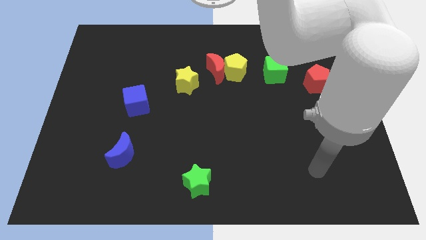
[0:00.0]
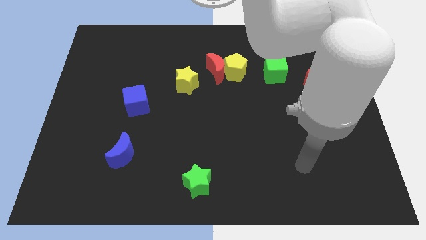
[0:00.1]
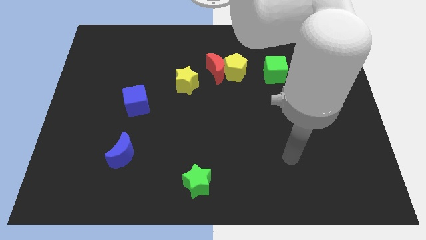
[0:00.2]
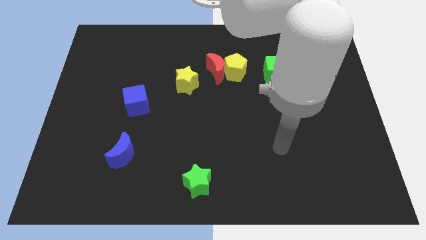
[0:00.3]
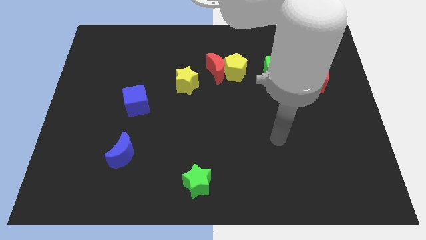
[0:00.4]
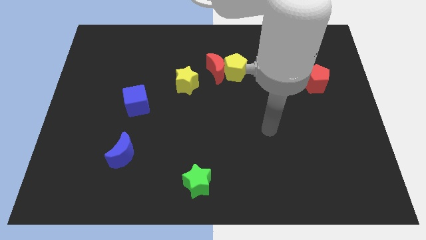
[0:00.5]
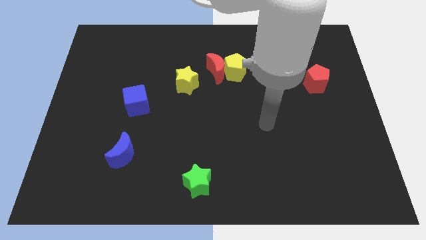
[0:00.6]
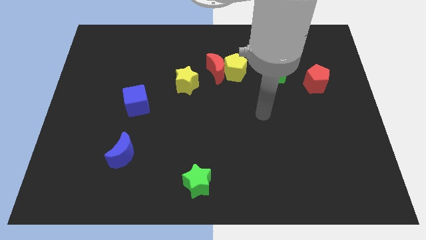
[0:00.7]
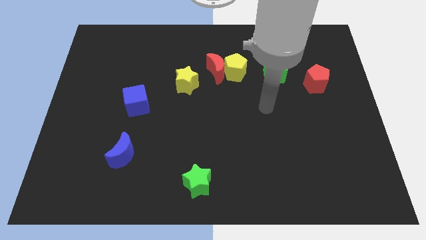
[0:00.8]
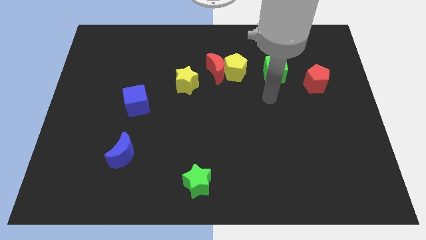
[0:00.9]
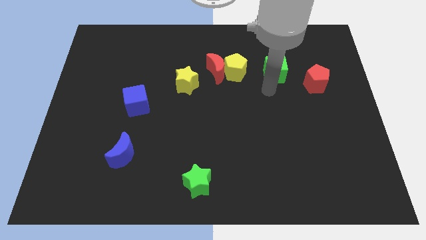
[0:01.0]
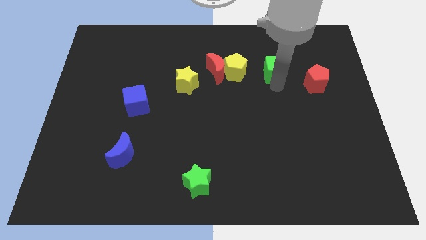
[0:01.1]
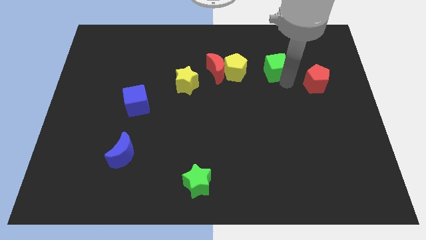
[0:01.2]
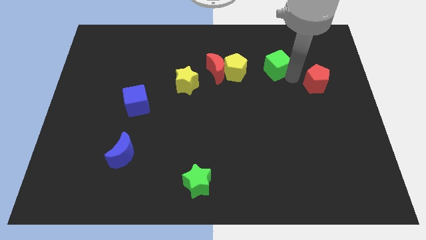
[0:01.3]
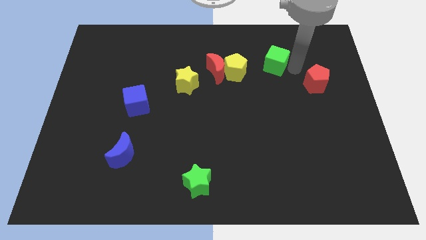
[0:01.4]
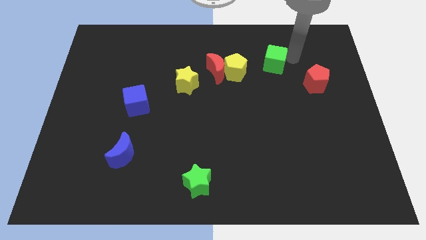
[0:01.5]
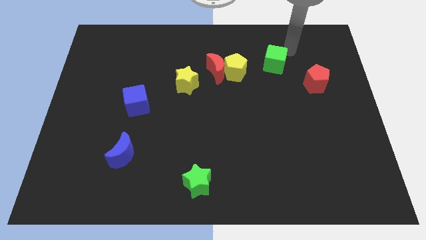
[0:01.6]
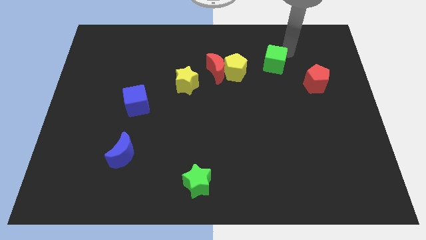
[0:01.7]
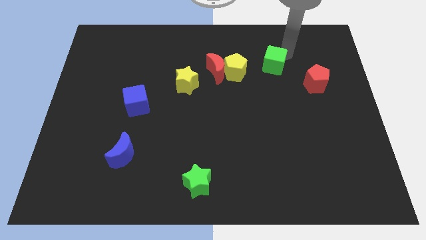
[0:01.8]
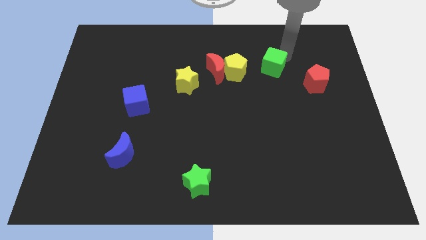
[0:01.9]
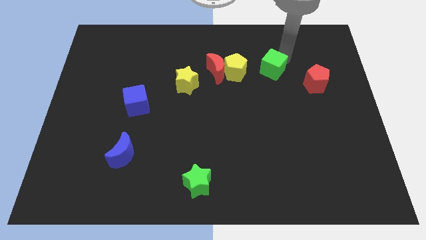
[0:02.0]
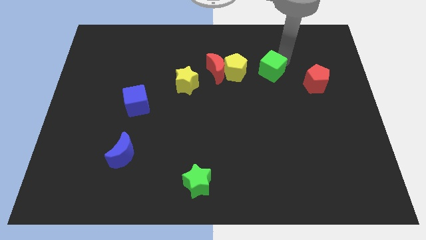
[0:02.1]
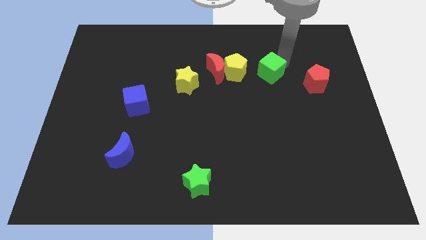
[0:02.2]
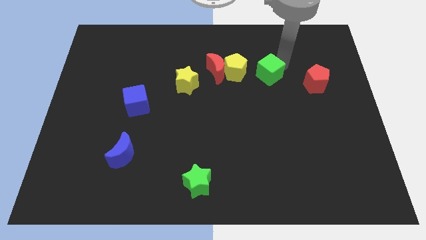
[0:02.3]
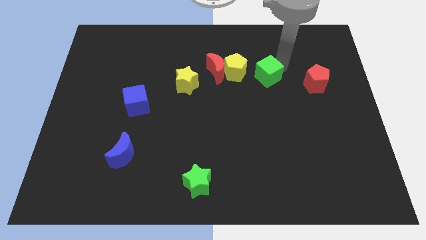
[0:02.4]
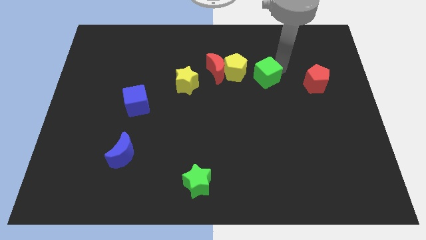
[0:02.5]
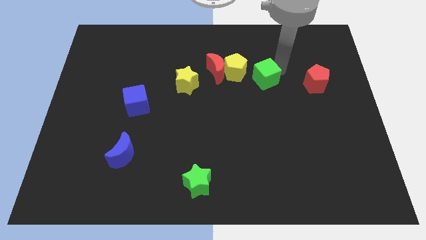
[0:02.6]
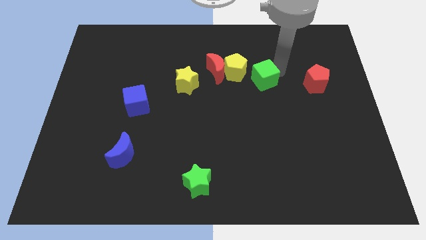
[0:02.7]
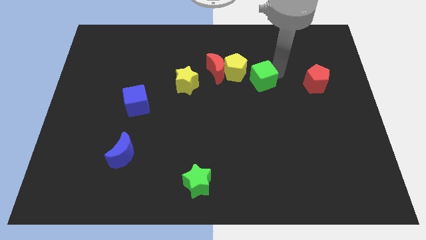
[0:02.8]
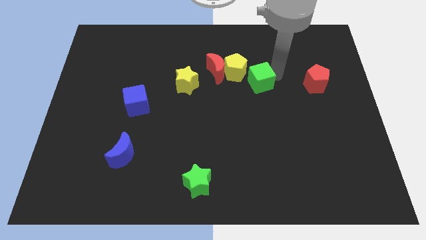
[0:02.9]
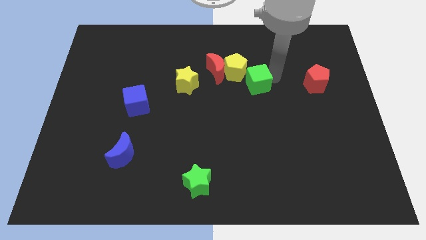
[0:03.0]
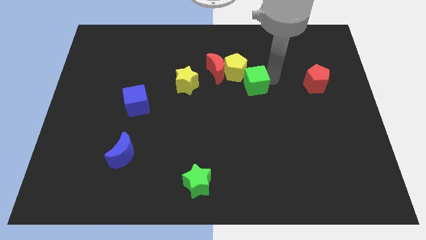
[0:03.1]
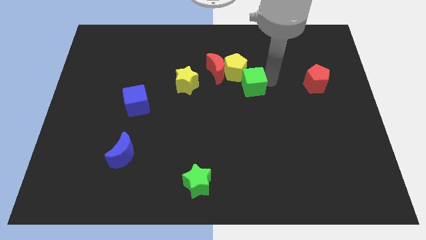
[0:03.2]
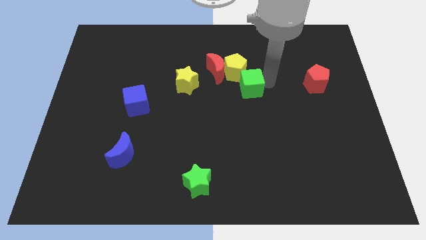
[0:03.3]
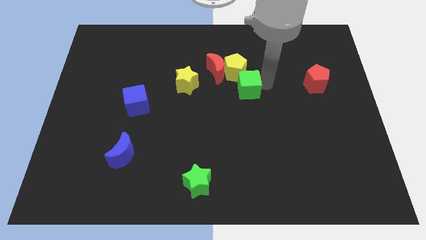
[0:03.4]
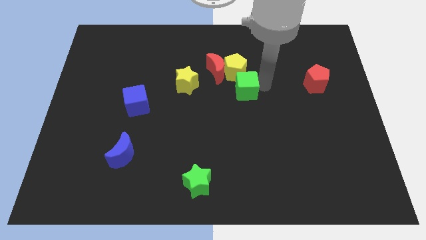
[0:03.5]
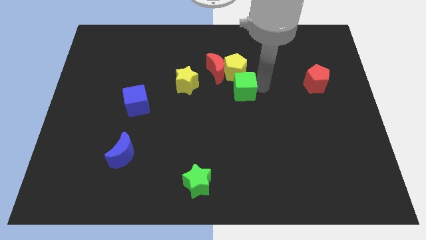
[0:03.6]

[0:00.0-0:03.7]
slightly slide the green cube to the left

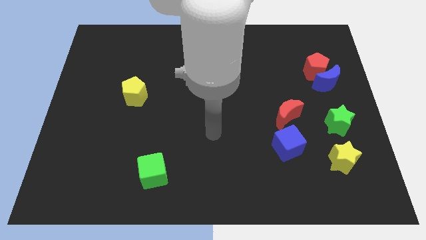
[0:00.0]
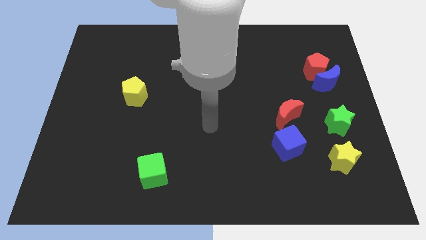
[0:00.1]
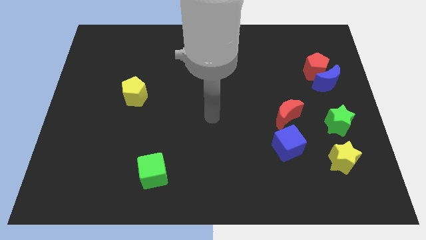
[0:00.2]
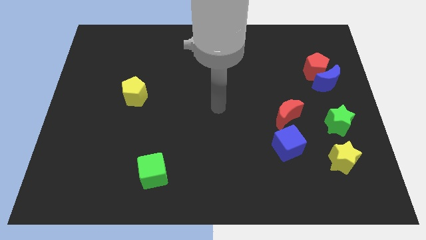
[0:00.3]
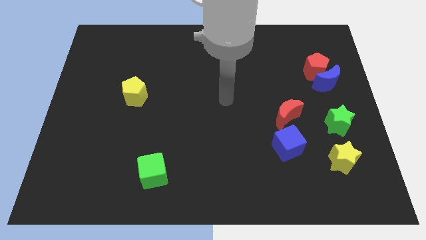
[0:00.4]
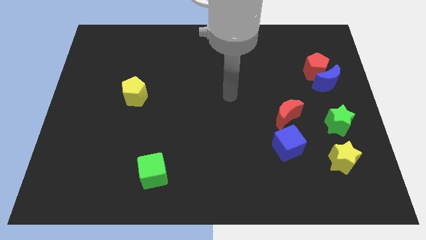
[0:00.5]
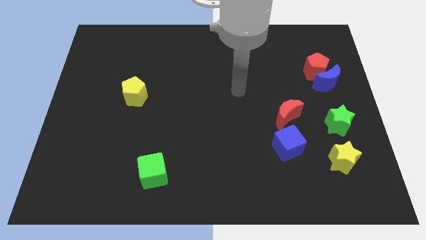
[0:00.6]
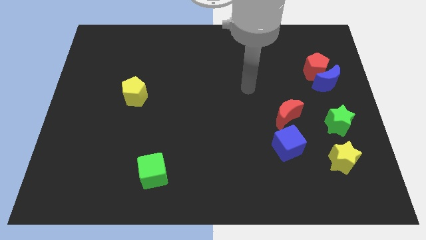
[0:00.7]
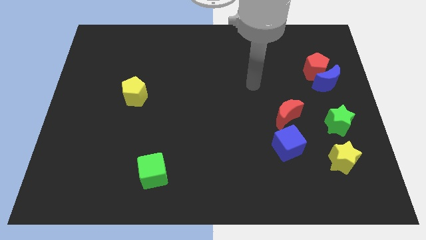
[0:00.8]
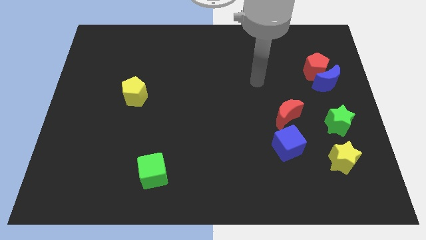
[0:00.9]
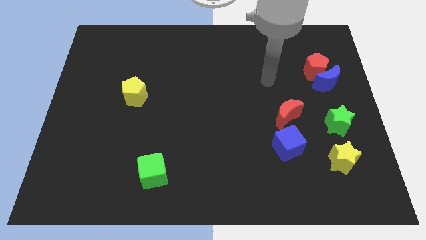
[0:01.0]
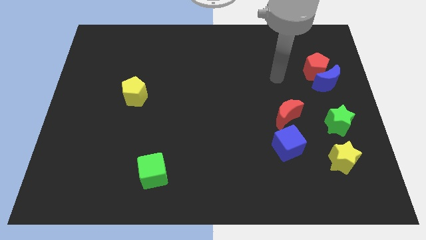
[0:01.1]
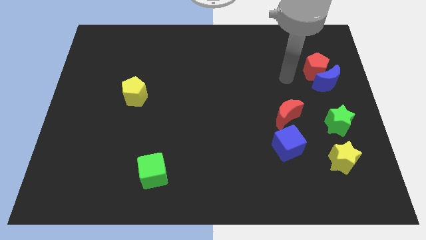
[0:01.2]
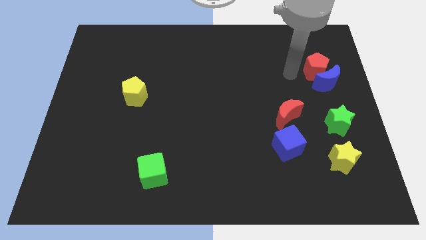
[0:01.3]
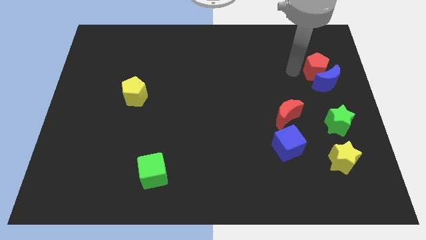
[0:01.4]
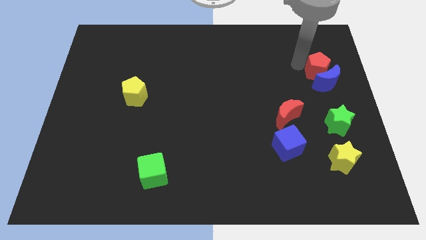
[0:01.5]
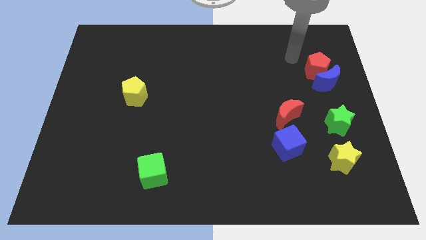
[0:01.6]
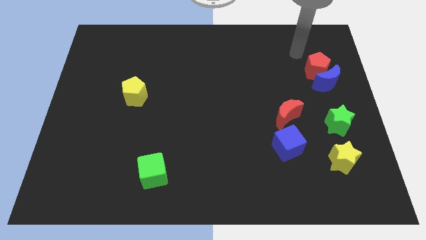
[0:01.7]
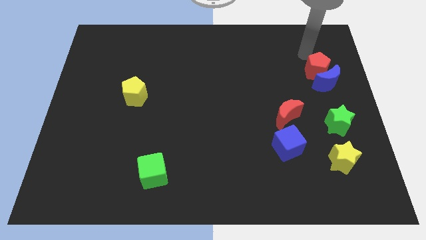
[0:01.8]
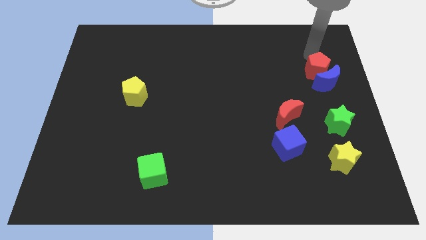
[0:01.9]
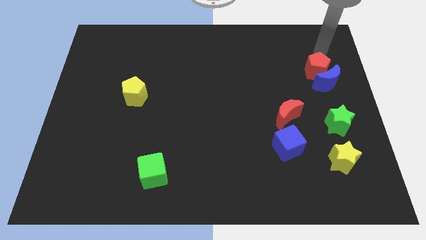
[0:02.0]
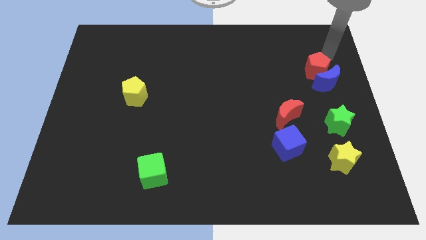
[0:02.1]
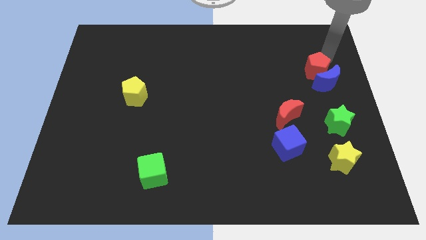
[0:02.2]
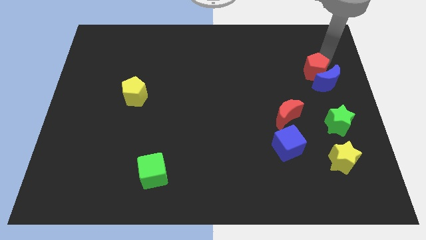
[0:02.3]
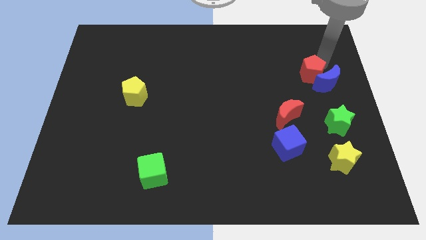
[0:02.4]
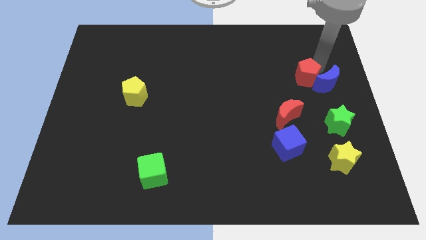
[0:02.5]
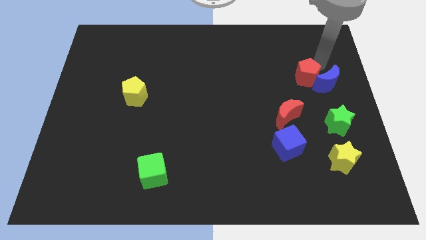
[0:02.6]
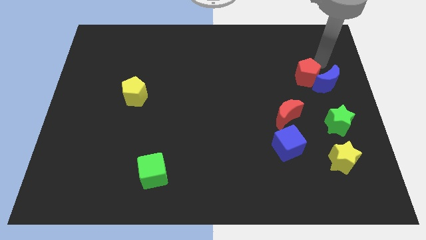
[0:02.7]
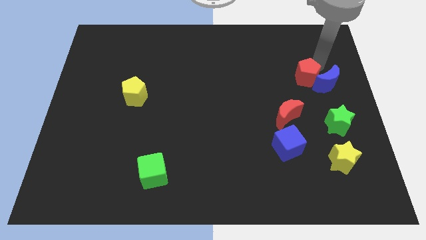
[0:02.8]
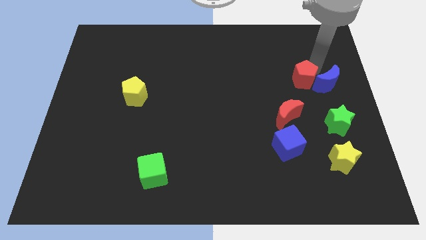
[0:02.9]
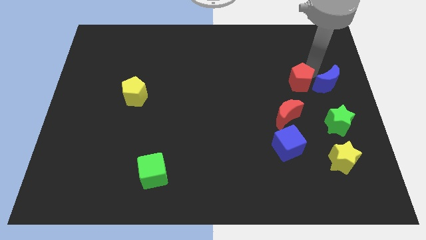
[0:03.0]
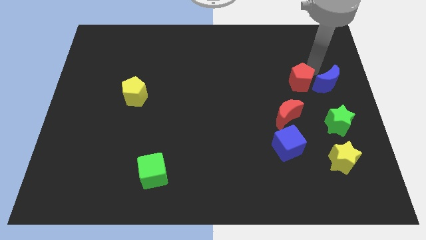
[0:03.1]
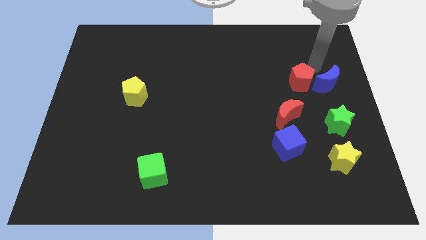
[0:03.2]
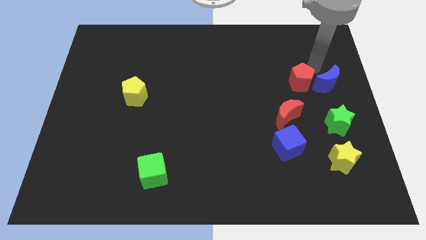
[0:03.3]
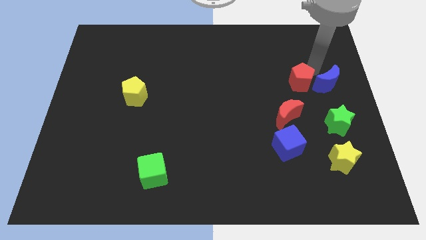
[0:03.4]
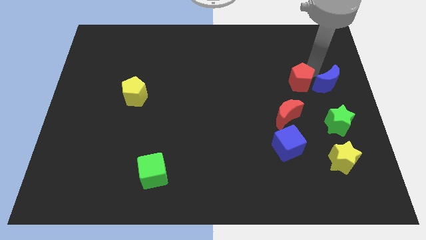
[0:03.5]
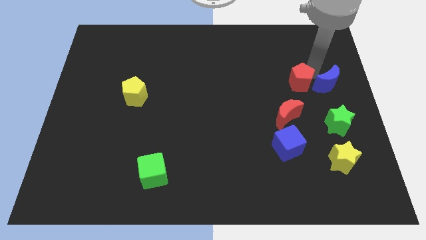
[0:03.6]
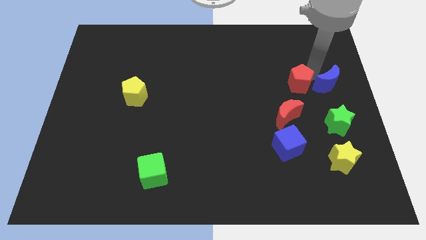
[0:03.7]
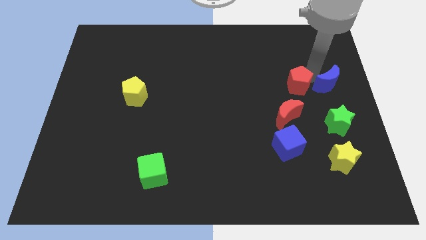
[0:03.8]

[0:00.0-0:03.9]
push the red pentagon downwards and left diagonally a bit

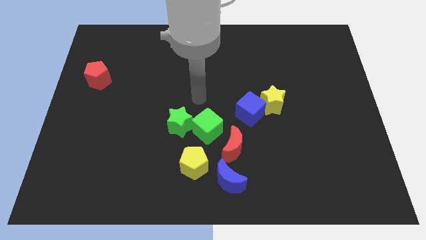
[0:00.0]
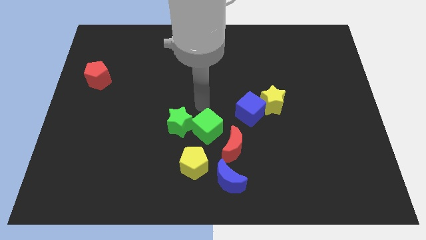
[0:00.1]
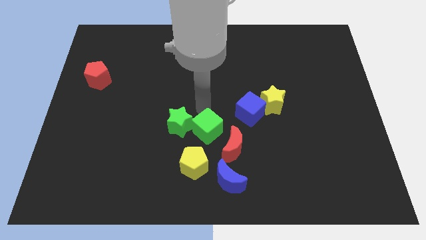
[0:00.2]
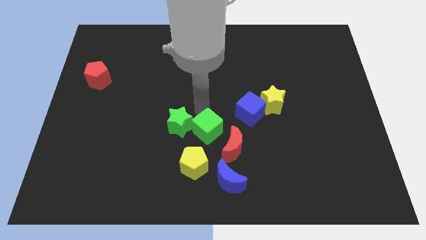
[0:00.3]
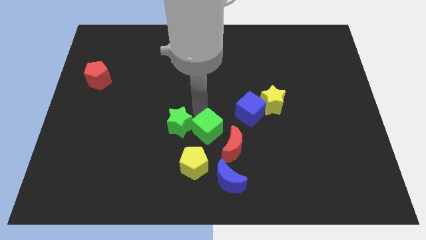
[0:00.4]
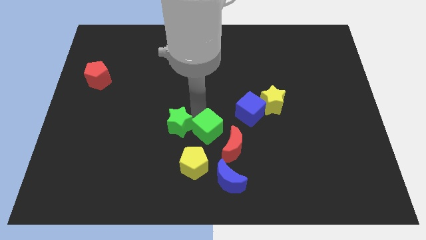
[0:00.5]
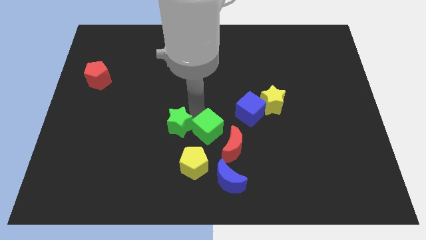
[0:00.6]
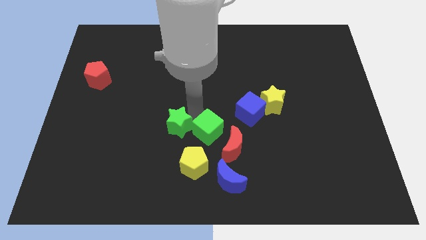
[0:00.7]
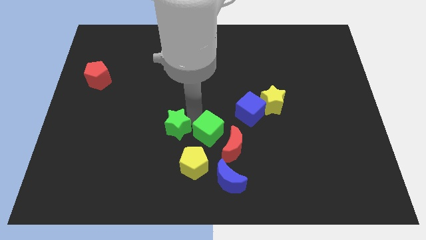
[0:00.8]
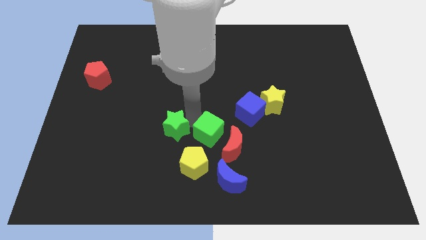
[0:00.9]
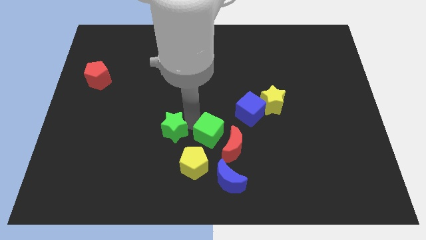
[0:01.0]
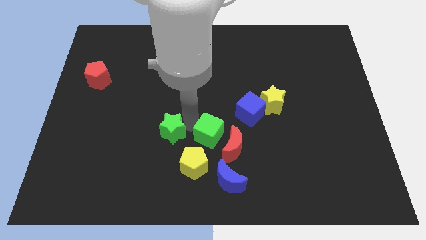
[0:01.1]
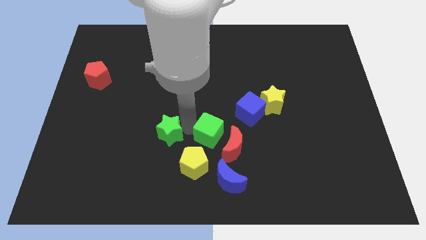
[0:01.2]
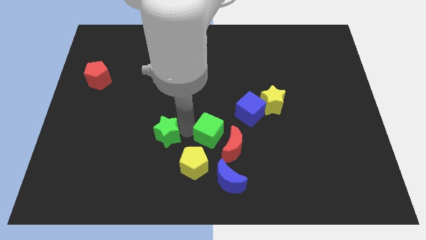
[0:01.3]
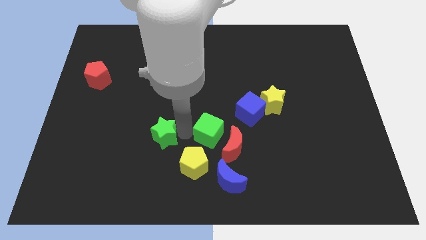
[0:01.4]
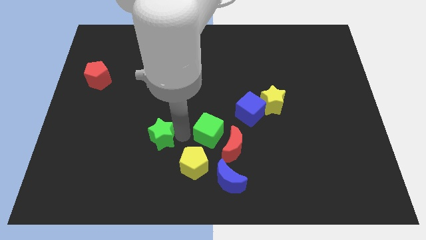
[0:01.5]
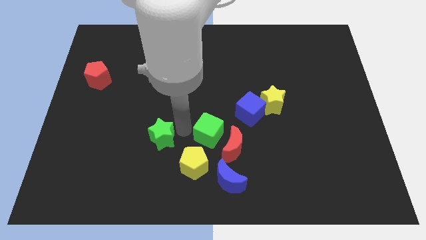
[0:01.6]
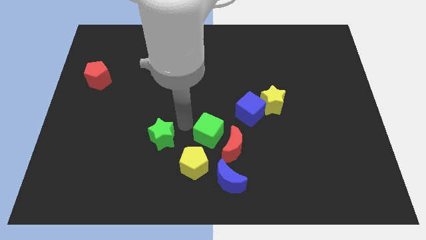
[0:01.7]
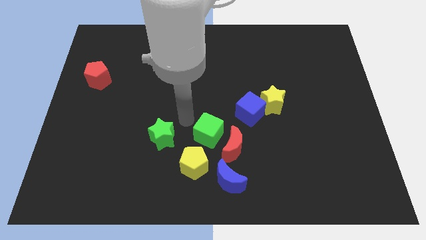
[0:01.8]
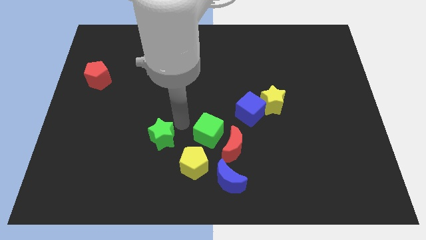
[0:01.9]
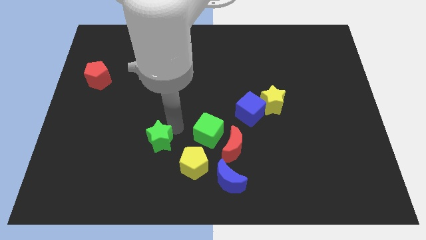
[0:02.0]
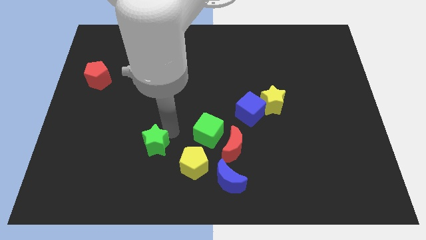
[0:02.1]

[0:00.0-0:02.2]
slide the green star downwards and to the left a little bit
